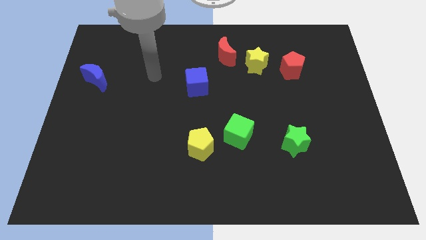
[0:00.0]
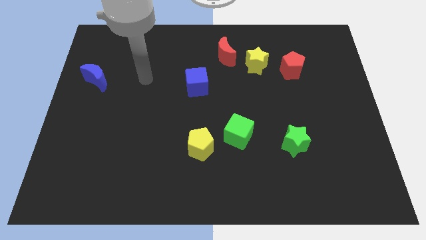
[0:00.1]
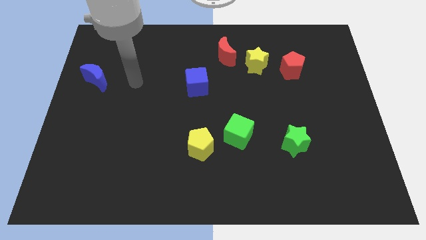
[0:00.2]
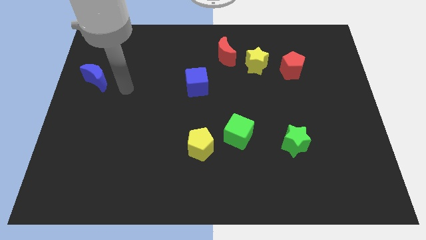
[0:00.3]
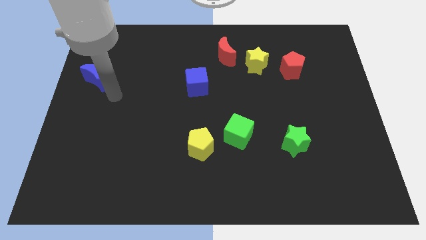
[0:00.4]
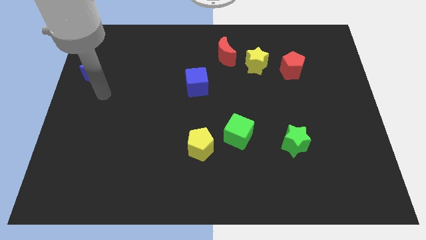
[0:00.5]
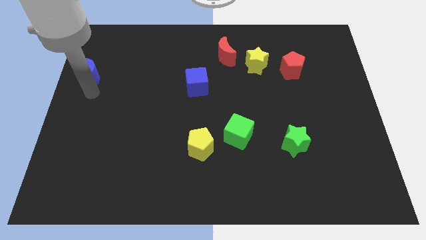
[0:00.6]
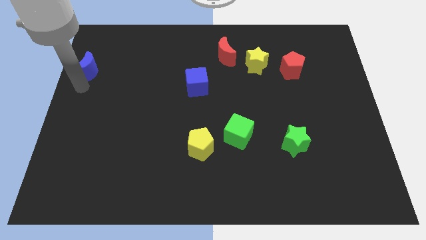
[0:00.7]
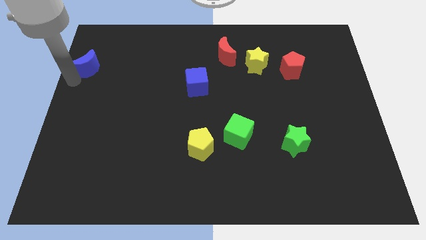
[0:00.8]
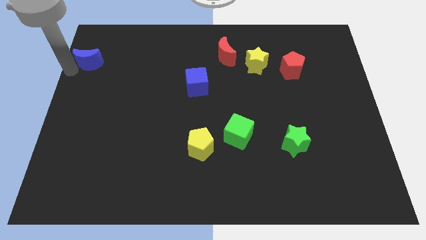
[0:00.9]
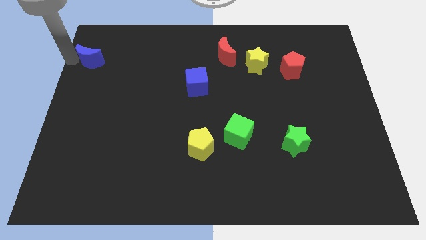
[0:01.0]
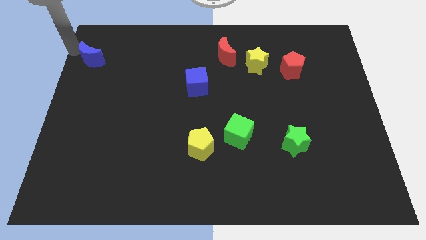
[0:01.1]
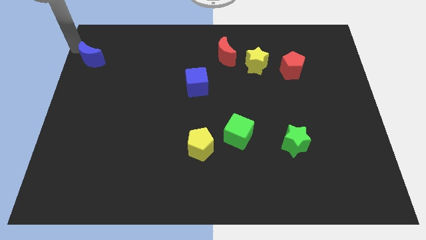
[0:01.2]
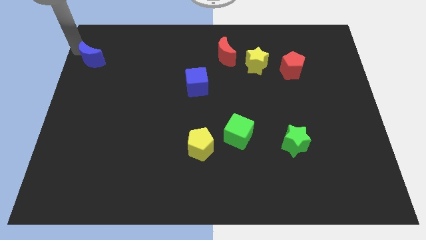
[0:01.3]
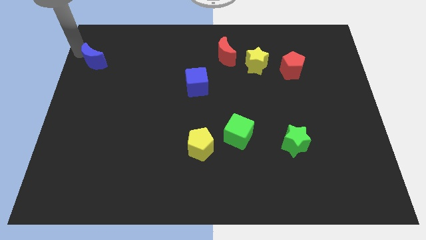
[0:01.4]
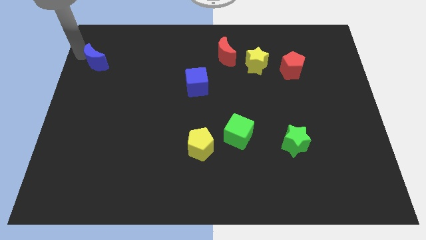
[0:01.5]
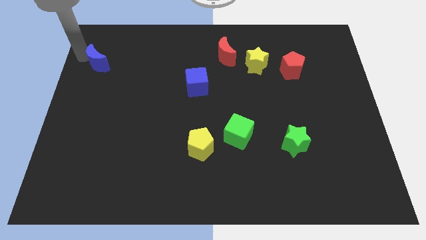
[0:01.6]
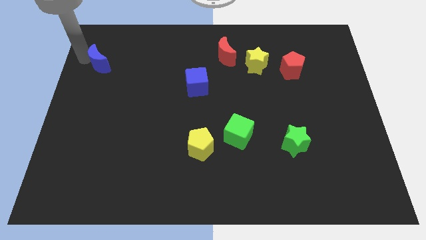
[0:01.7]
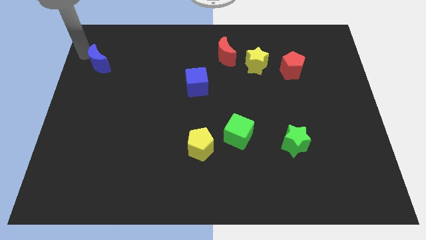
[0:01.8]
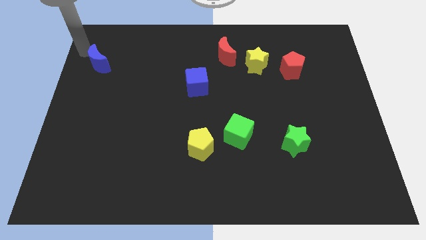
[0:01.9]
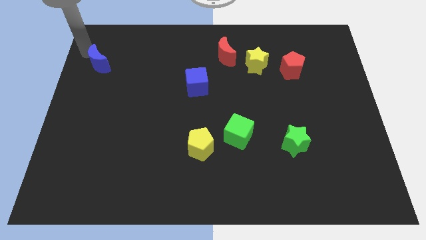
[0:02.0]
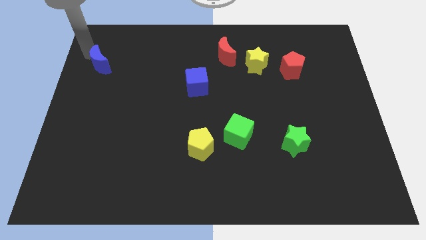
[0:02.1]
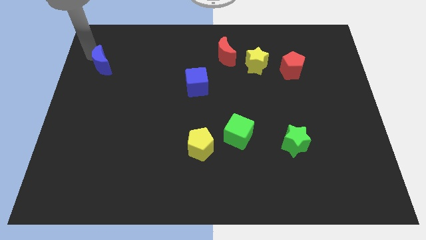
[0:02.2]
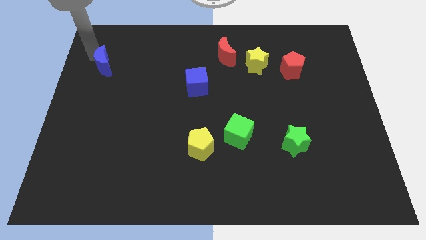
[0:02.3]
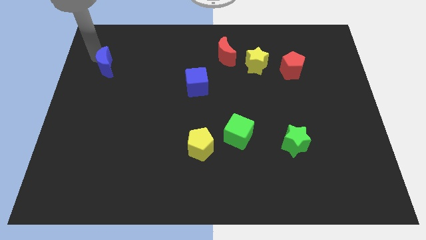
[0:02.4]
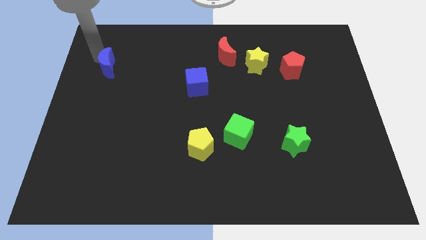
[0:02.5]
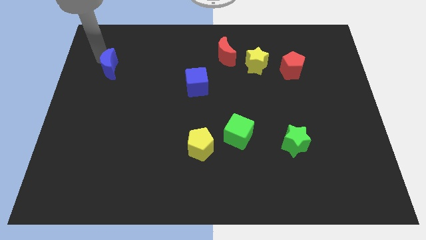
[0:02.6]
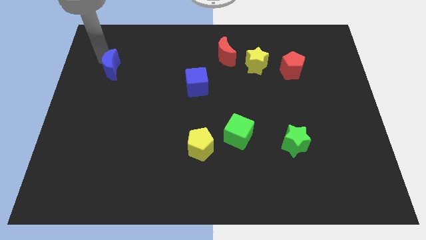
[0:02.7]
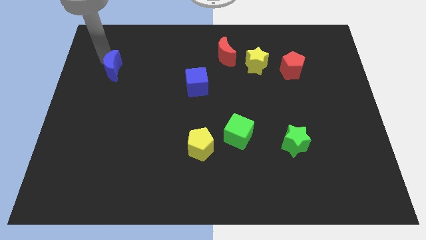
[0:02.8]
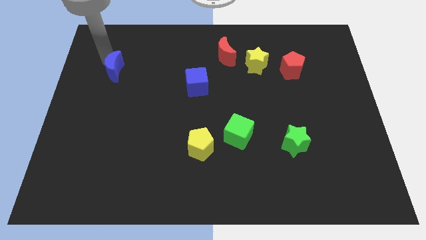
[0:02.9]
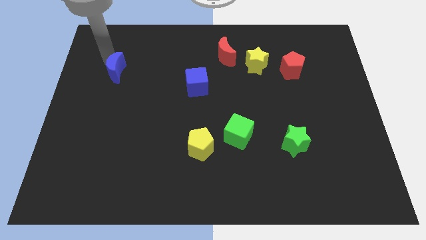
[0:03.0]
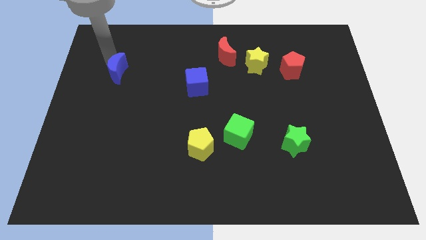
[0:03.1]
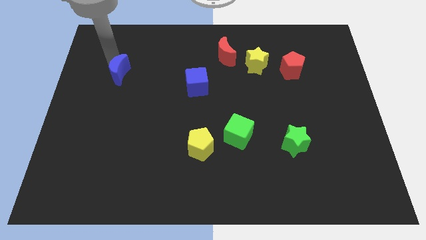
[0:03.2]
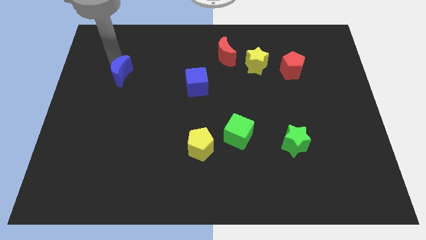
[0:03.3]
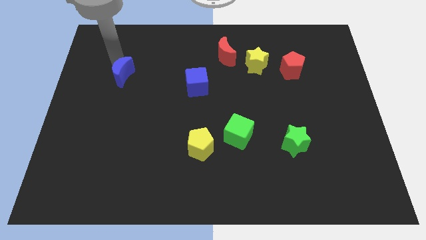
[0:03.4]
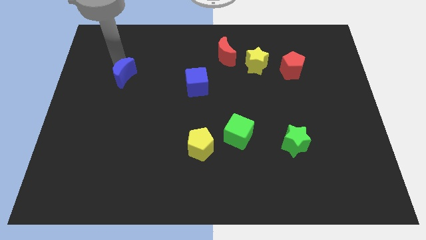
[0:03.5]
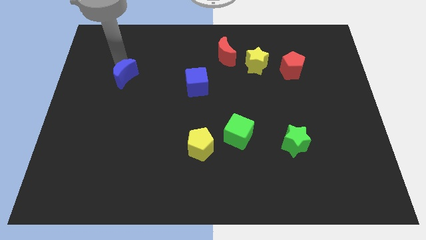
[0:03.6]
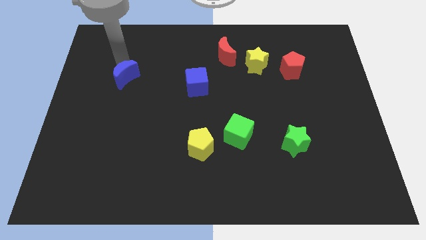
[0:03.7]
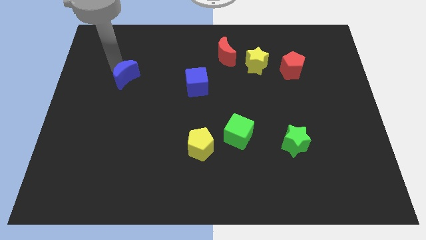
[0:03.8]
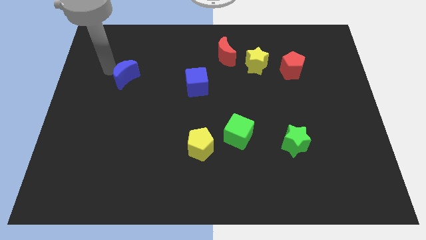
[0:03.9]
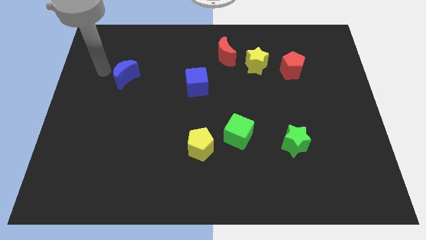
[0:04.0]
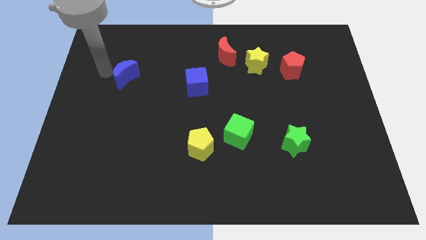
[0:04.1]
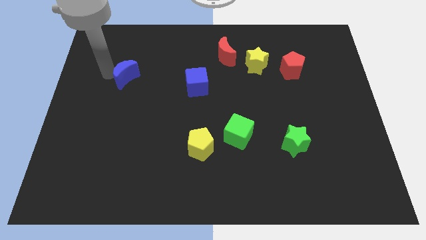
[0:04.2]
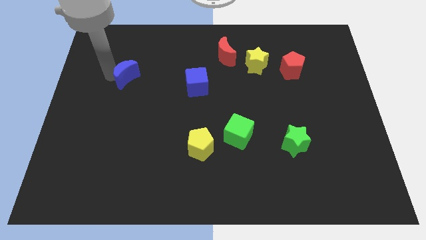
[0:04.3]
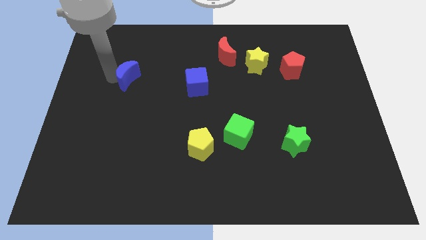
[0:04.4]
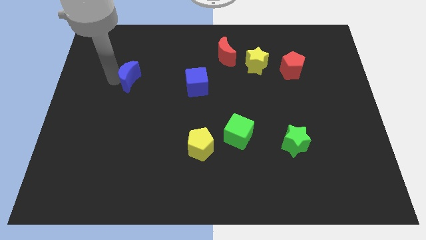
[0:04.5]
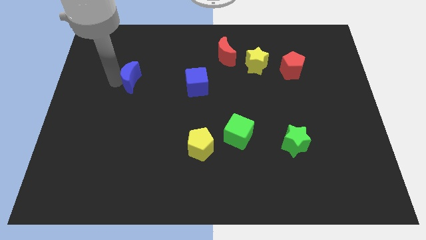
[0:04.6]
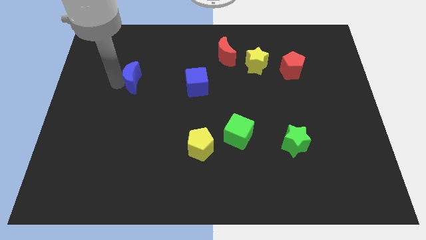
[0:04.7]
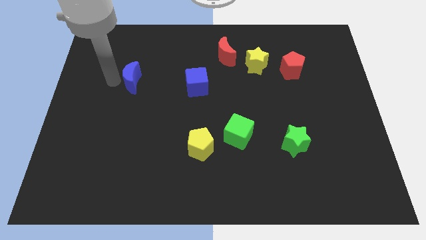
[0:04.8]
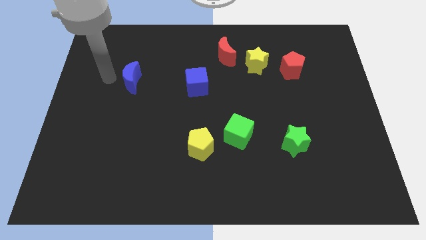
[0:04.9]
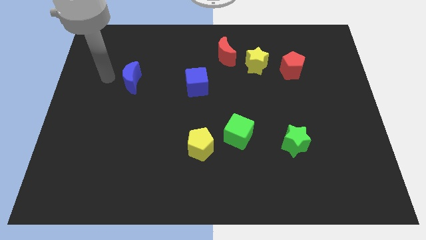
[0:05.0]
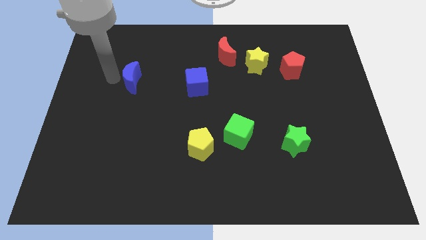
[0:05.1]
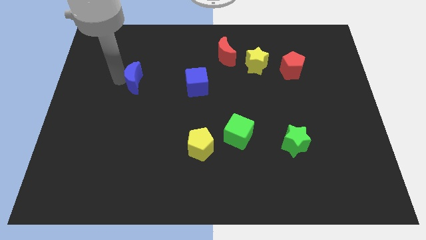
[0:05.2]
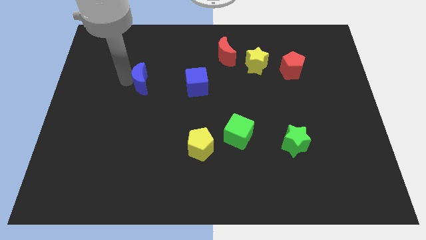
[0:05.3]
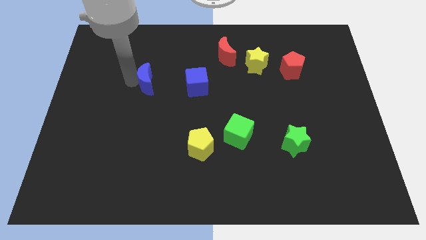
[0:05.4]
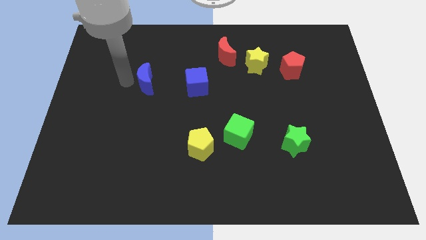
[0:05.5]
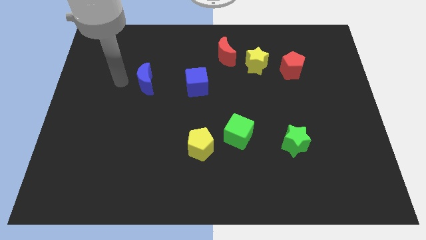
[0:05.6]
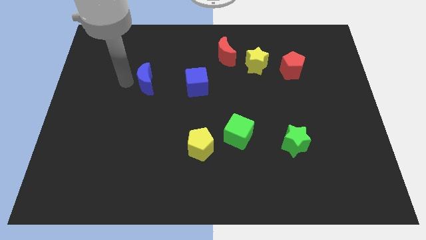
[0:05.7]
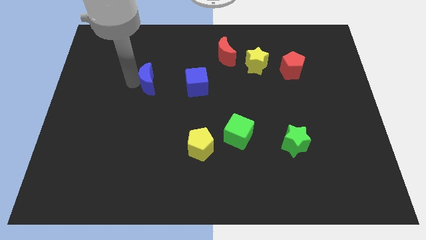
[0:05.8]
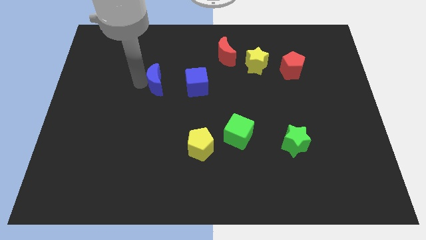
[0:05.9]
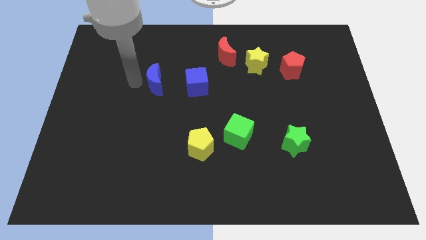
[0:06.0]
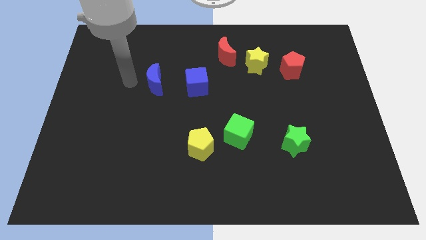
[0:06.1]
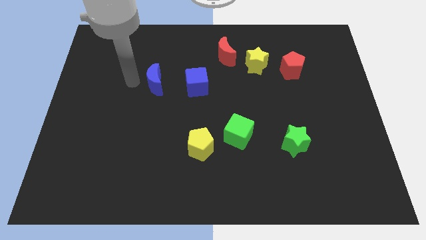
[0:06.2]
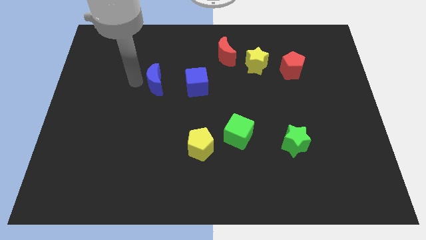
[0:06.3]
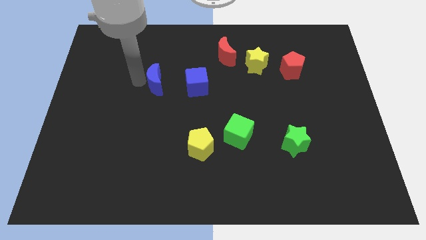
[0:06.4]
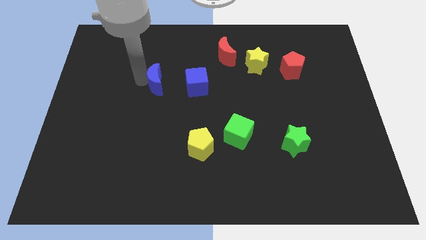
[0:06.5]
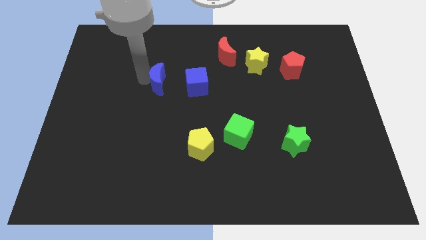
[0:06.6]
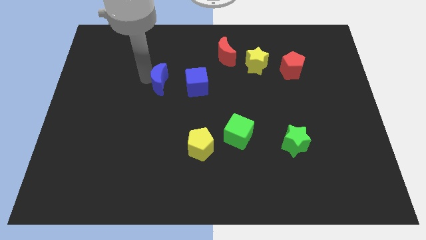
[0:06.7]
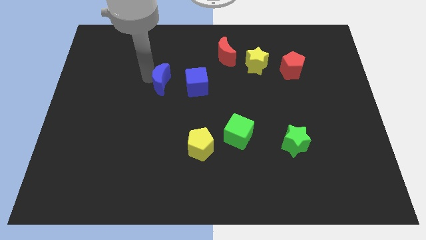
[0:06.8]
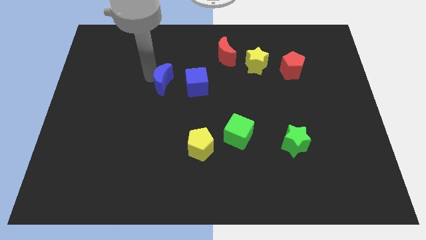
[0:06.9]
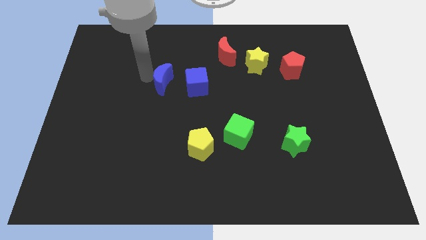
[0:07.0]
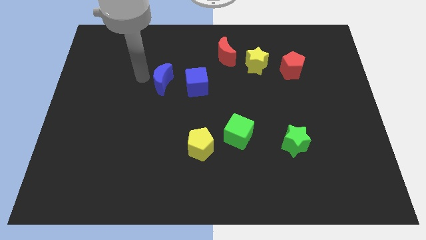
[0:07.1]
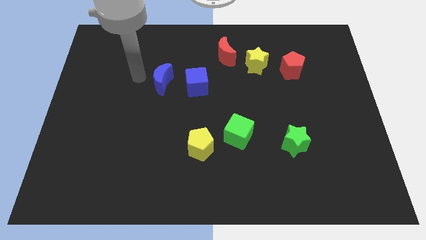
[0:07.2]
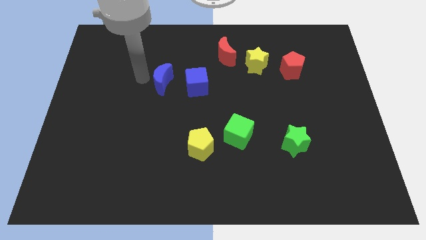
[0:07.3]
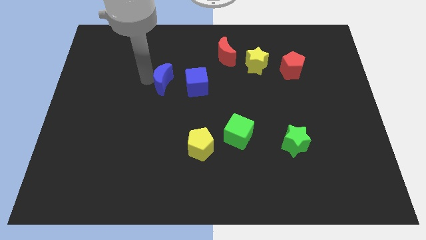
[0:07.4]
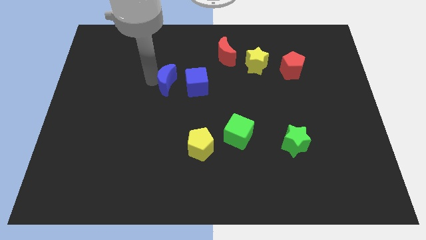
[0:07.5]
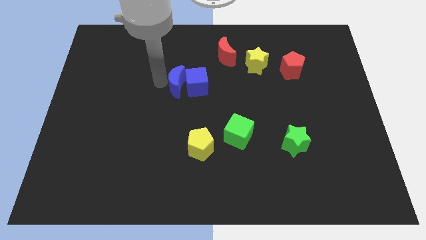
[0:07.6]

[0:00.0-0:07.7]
push the blue moon towards the blue cube
